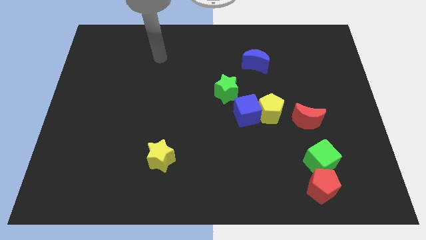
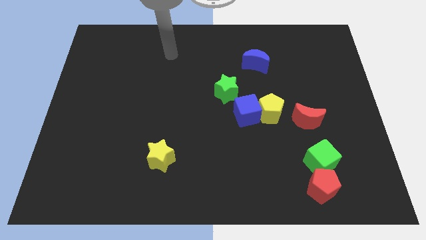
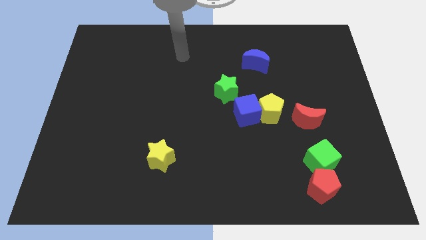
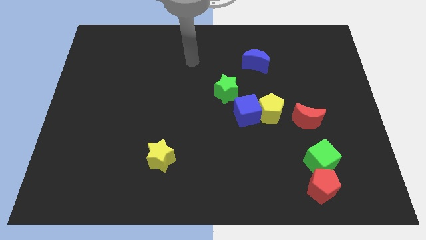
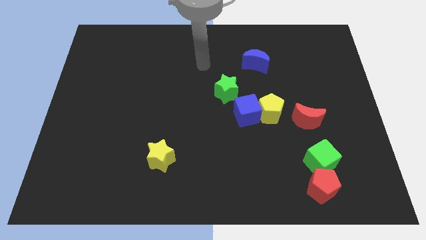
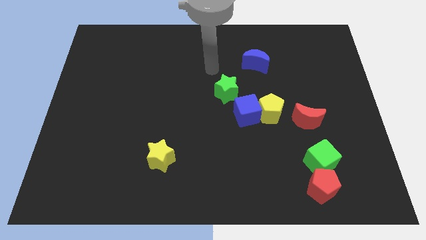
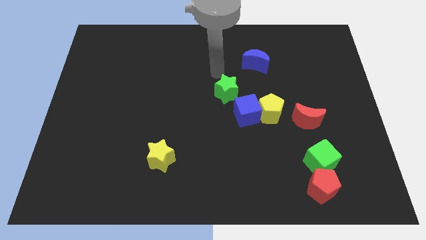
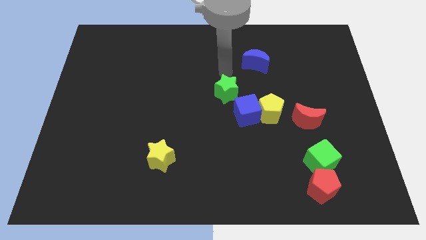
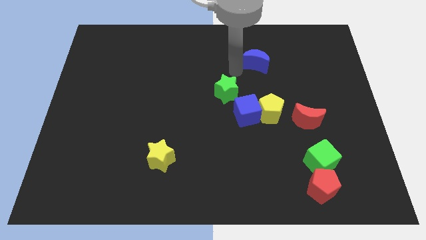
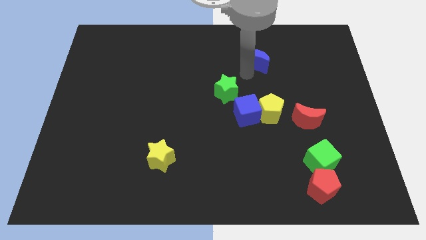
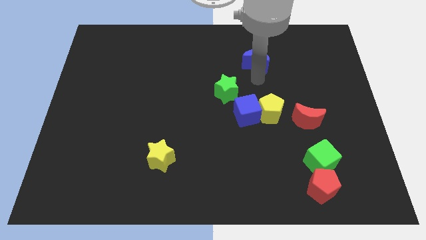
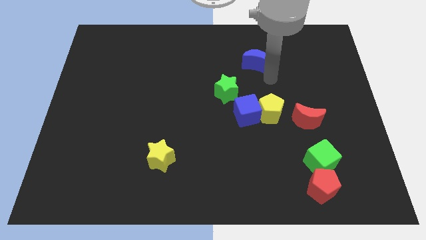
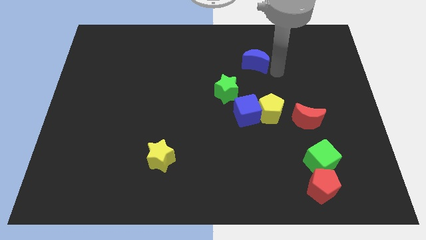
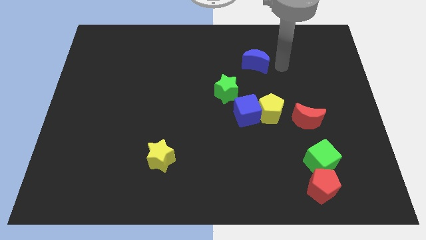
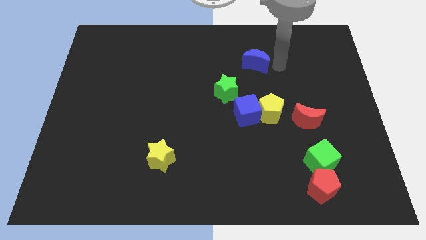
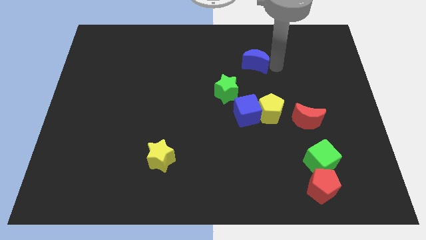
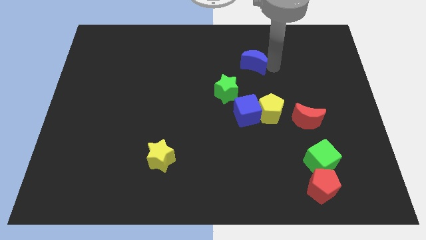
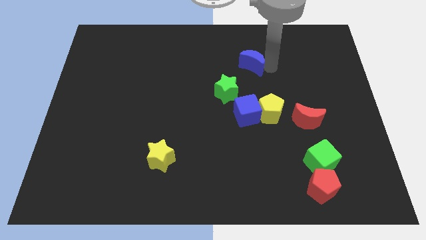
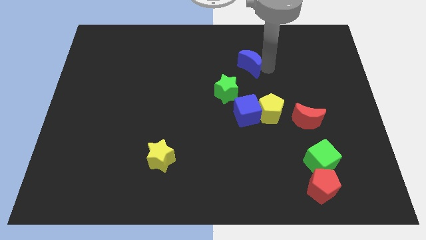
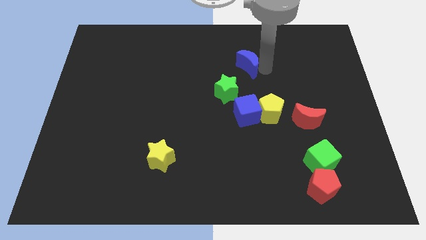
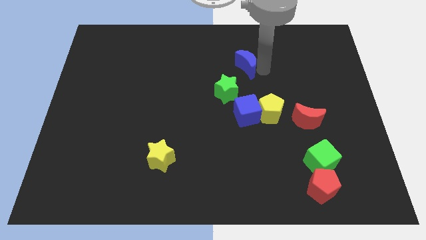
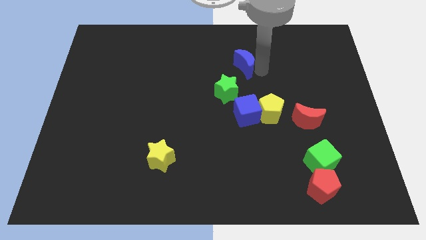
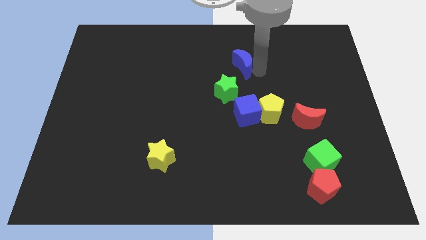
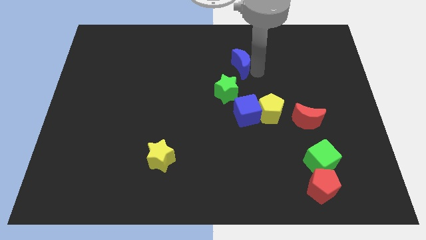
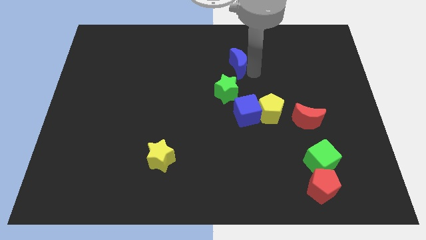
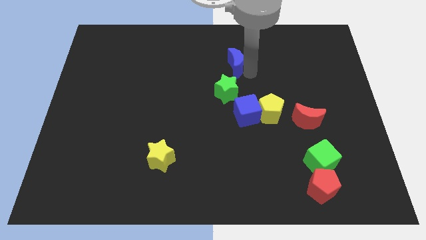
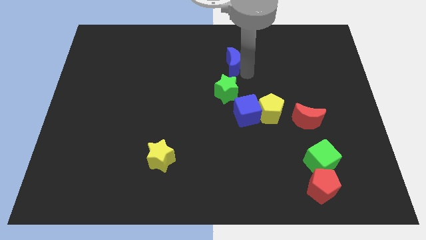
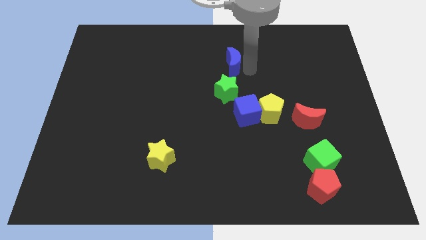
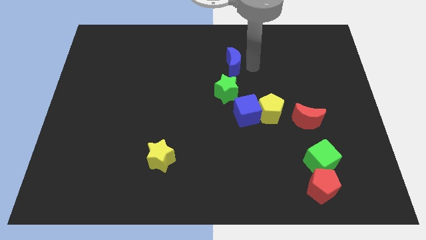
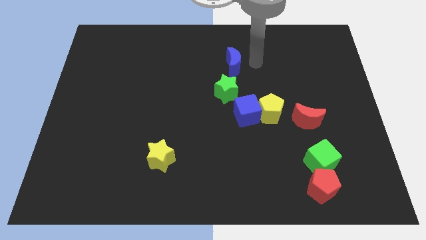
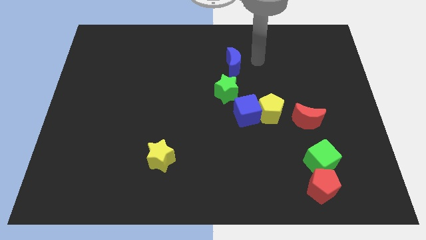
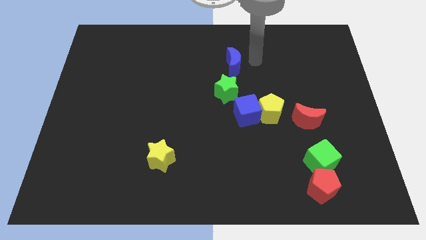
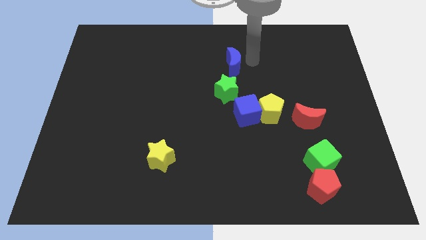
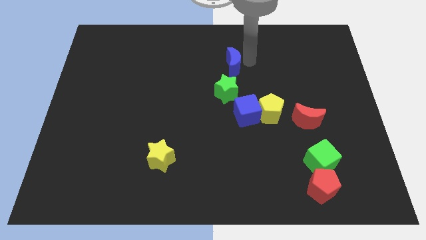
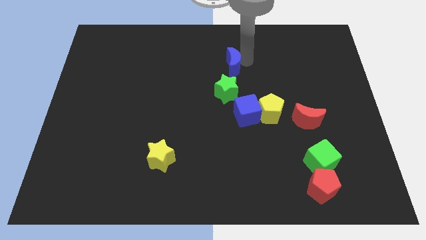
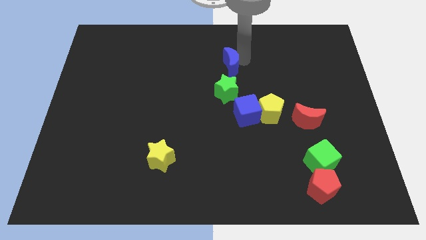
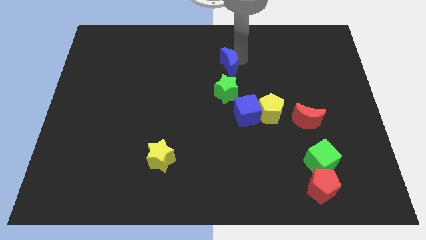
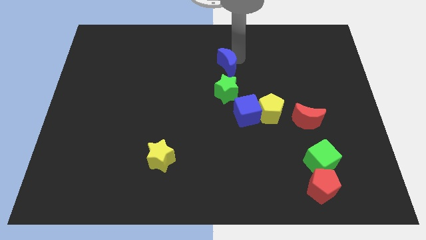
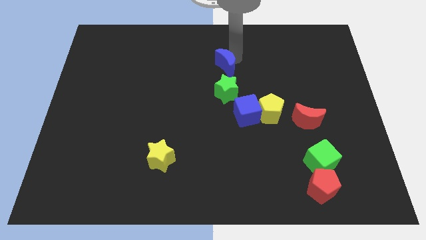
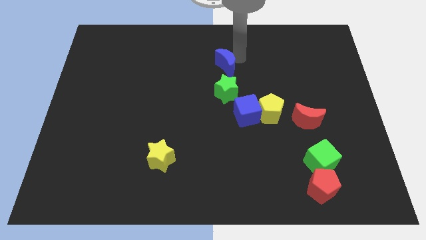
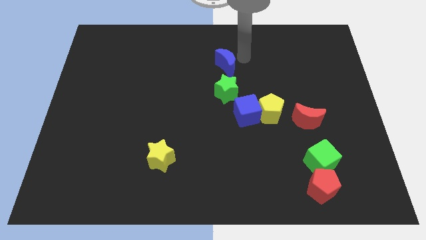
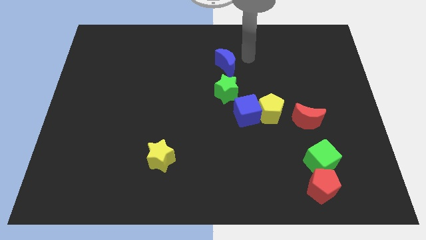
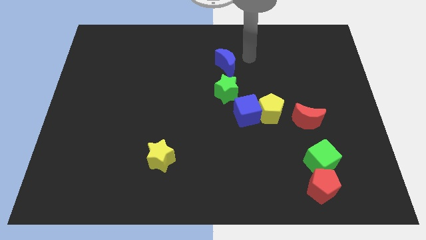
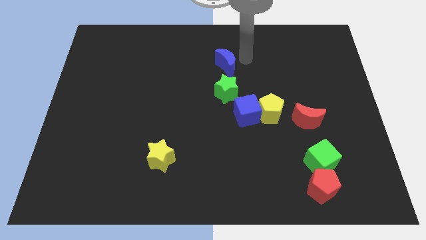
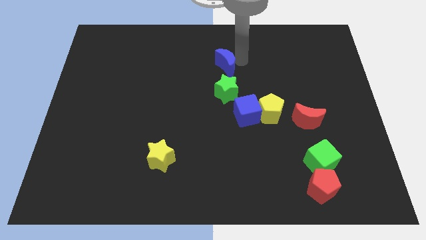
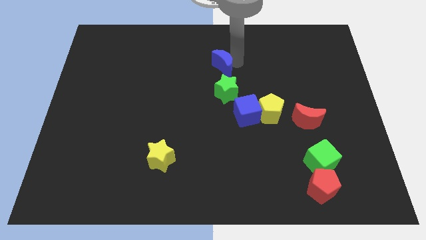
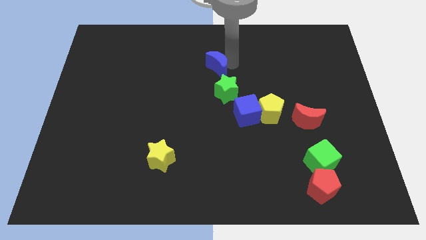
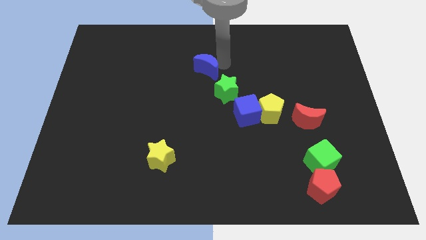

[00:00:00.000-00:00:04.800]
move the blue moon a little diagonally down and left

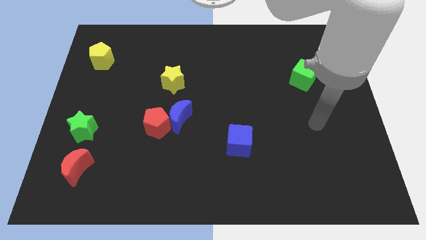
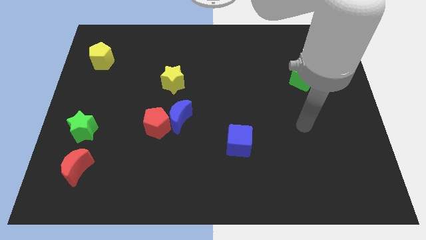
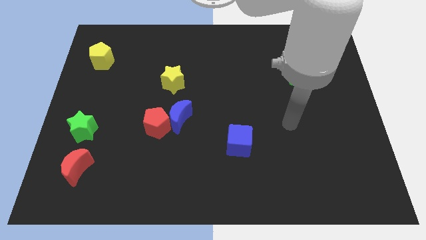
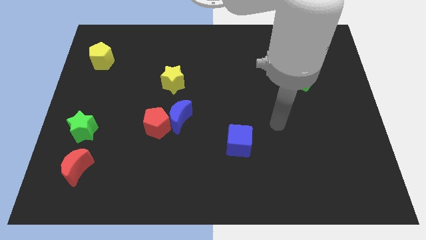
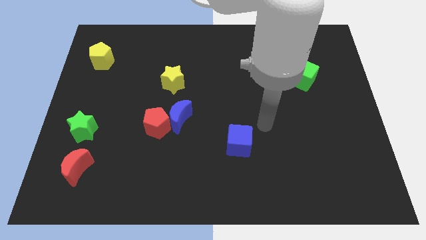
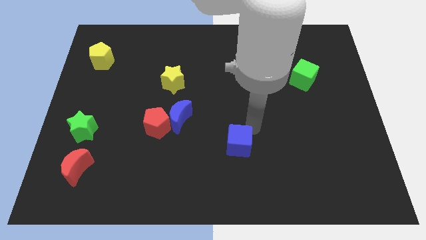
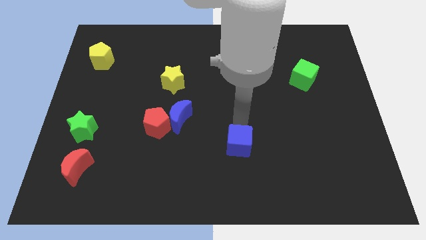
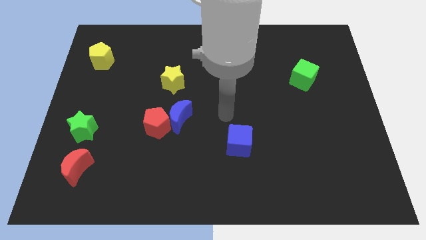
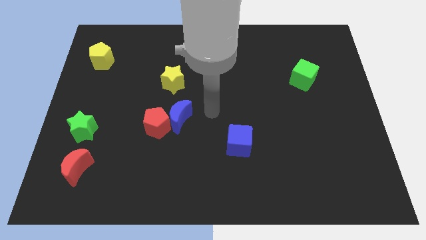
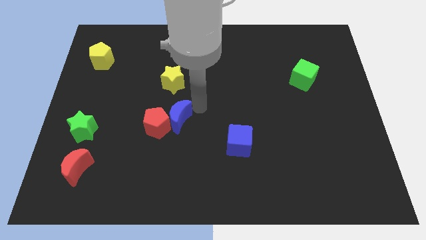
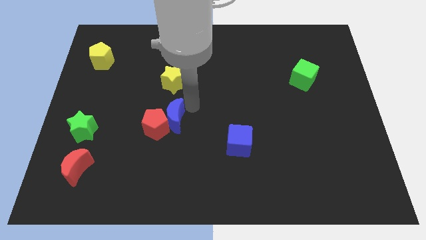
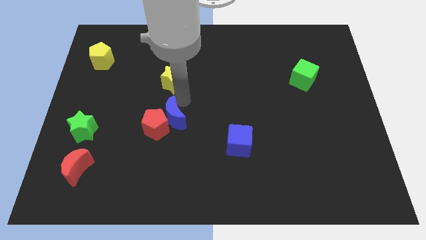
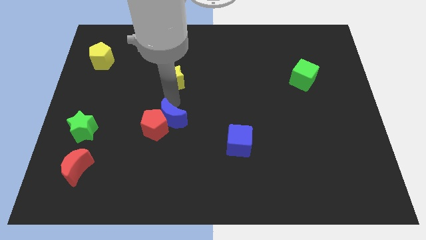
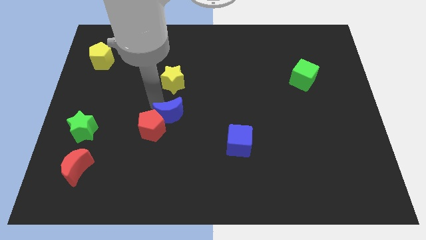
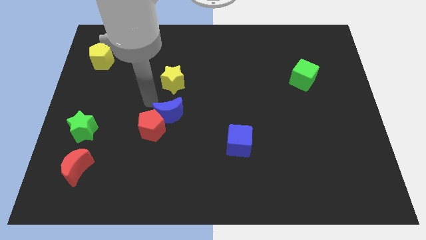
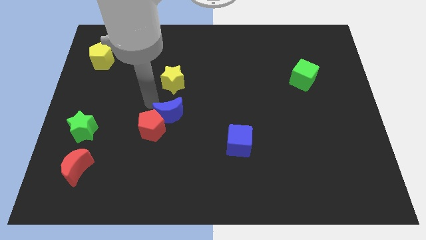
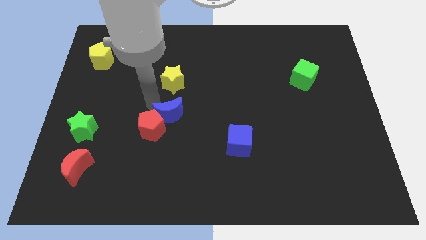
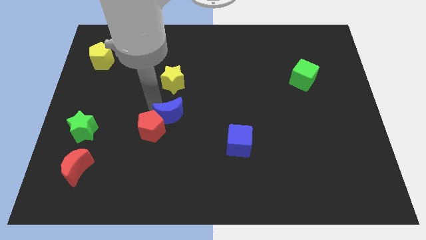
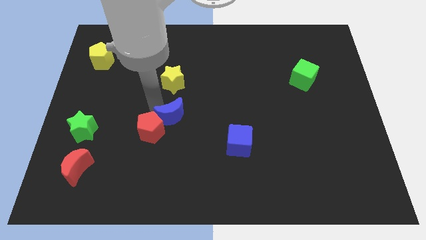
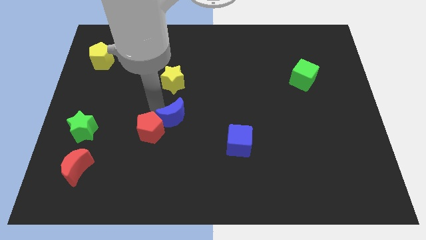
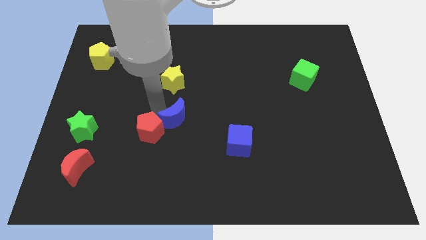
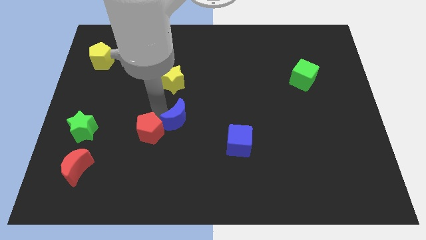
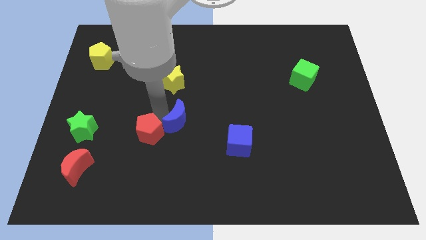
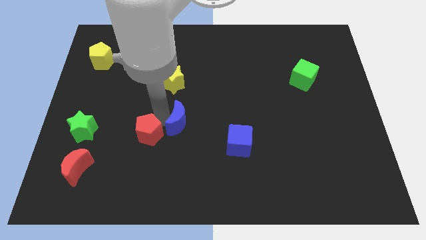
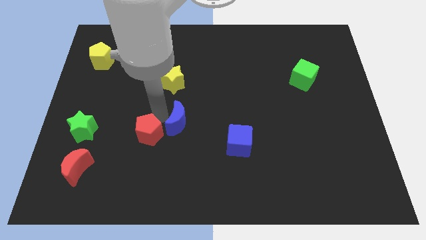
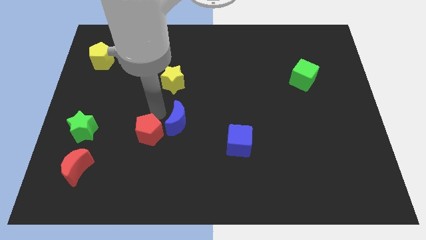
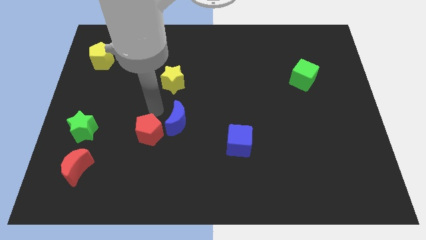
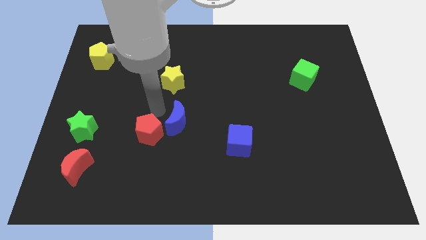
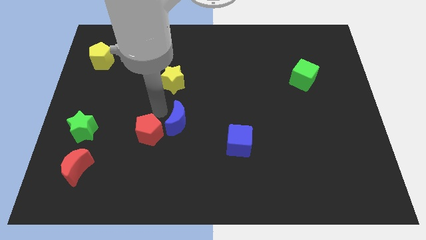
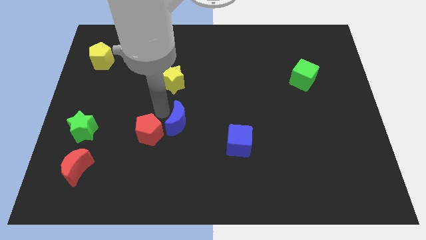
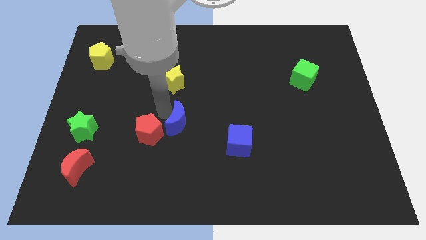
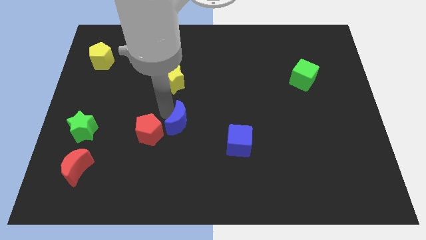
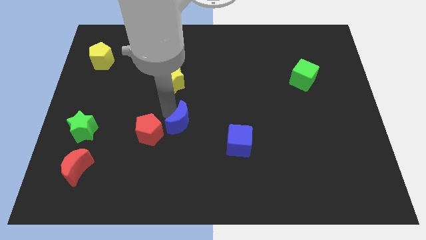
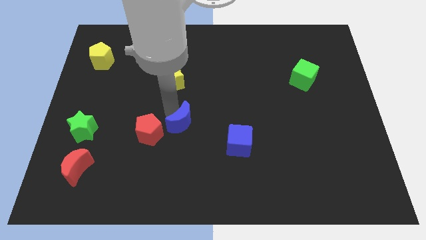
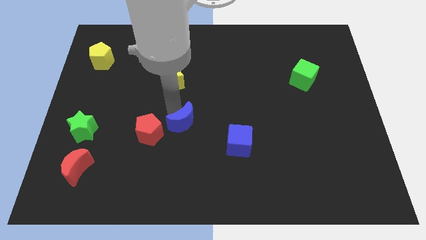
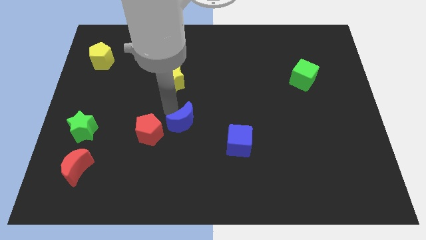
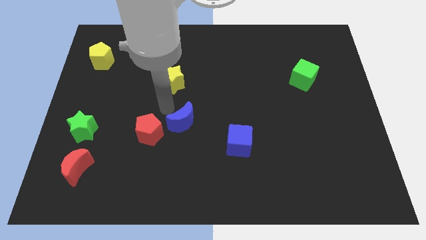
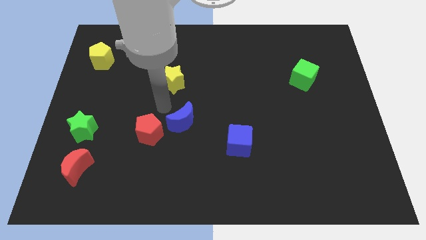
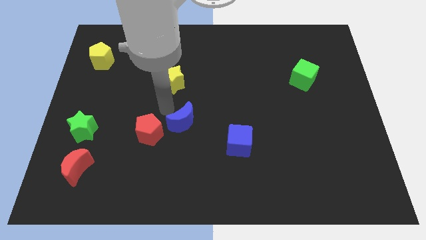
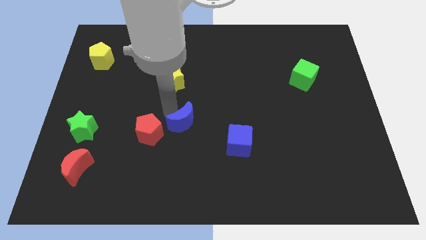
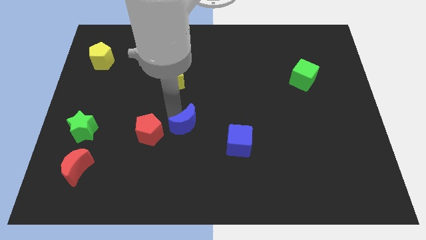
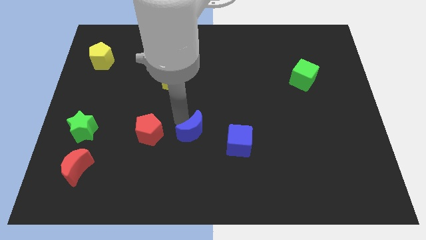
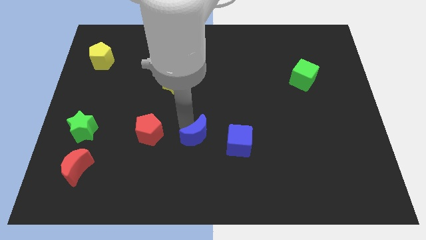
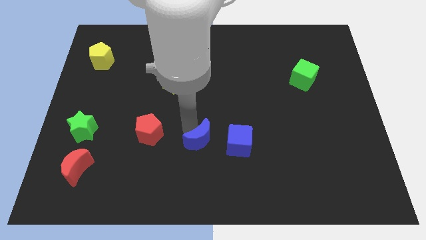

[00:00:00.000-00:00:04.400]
slide the blue moon a bit diagonally down and right
